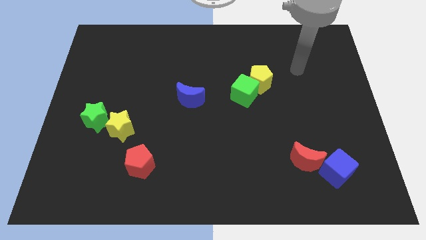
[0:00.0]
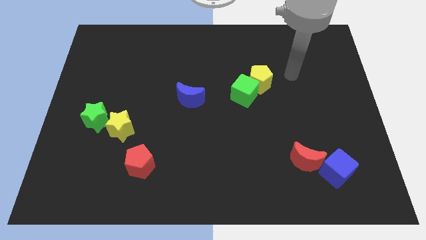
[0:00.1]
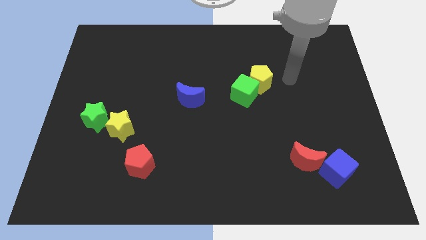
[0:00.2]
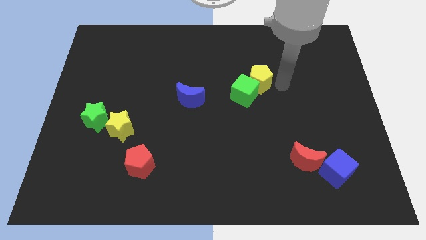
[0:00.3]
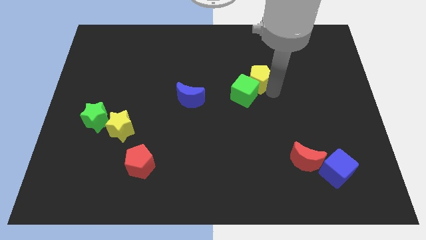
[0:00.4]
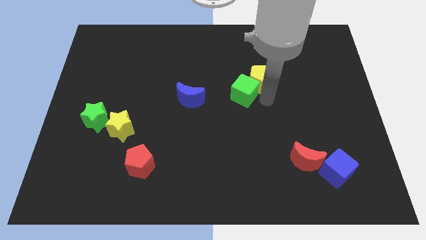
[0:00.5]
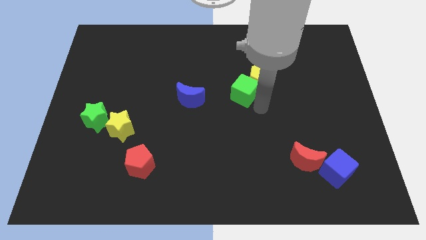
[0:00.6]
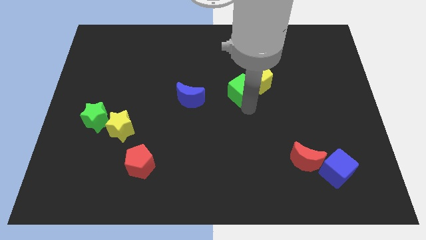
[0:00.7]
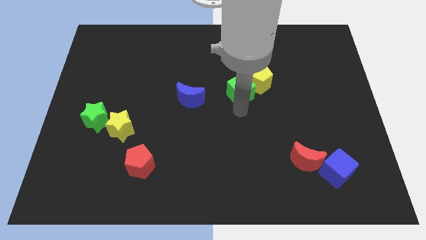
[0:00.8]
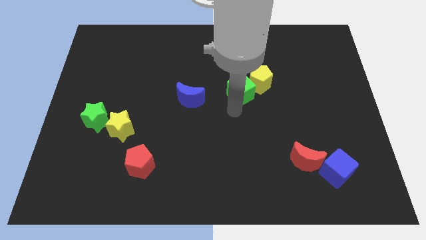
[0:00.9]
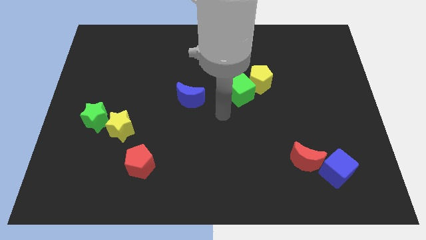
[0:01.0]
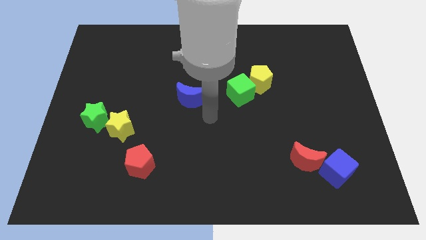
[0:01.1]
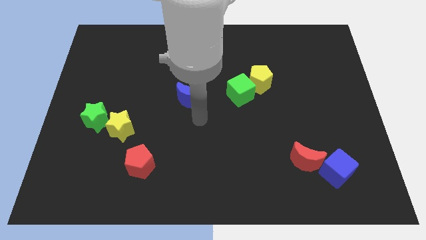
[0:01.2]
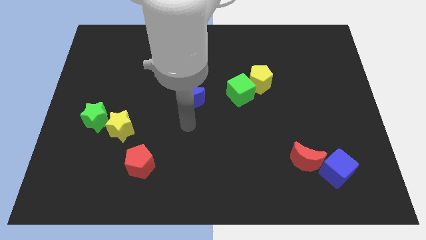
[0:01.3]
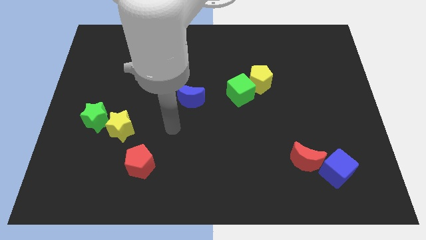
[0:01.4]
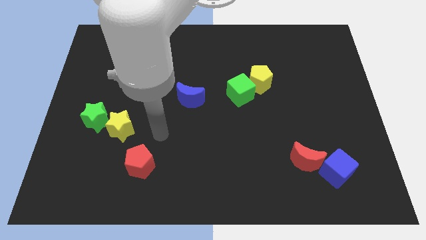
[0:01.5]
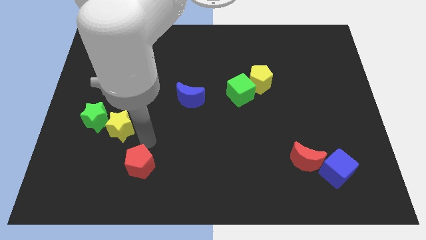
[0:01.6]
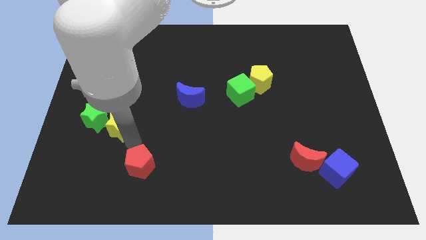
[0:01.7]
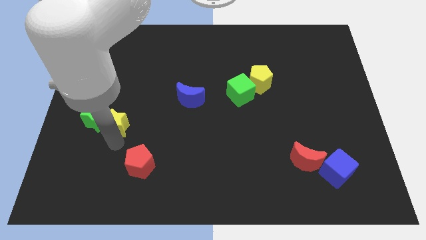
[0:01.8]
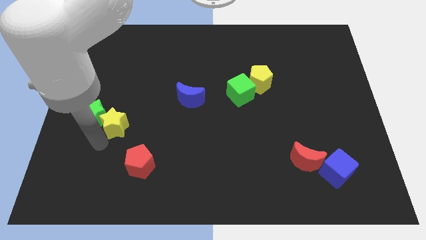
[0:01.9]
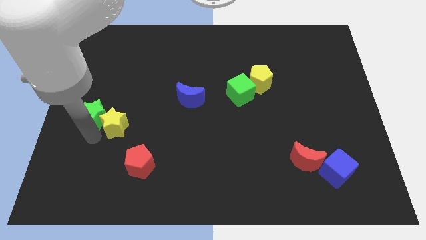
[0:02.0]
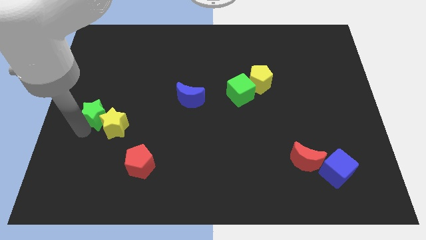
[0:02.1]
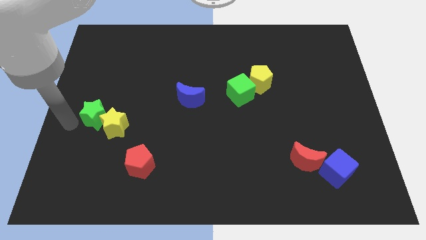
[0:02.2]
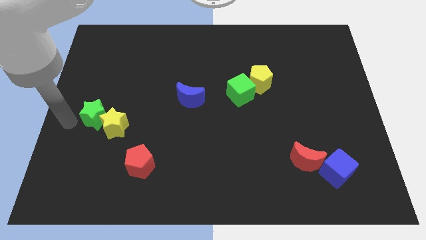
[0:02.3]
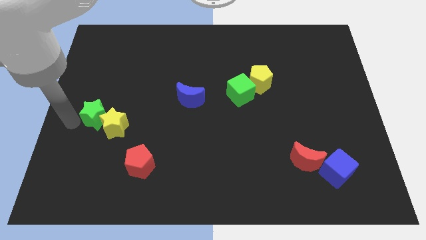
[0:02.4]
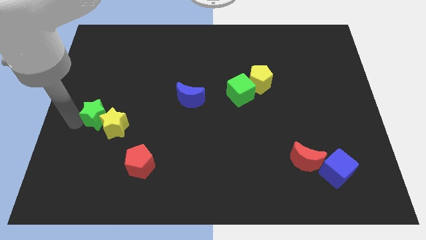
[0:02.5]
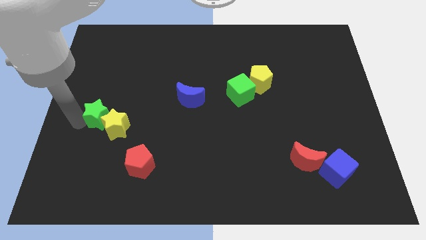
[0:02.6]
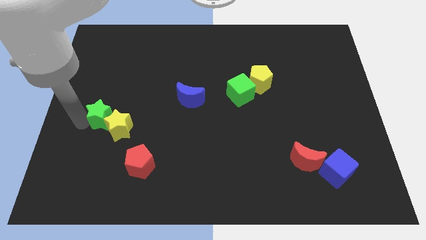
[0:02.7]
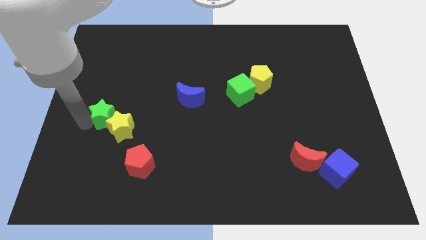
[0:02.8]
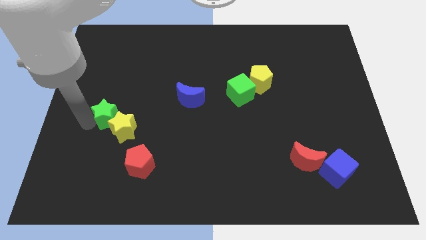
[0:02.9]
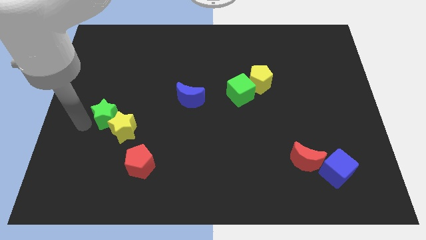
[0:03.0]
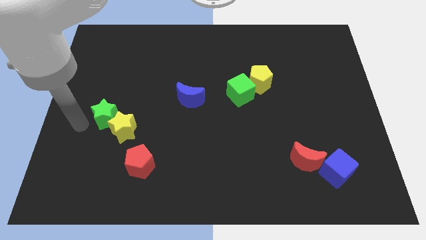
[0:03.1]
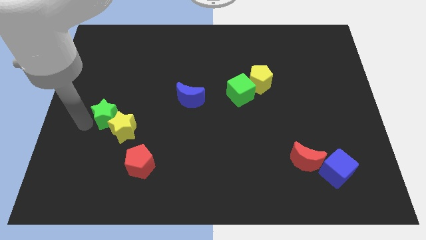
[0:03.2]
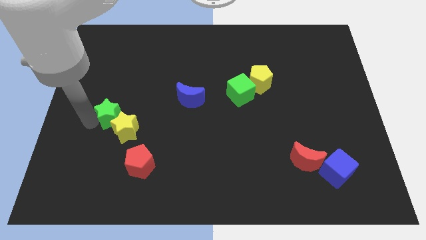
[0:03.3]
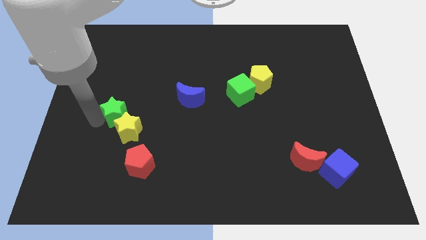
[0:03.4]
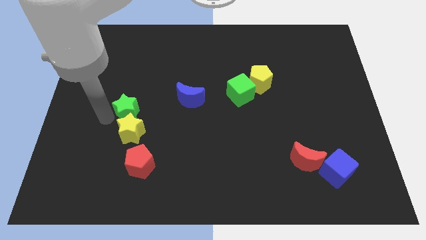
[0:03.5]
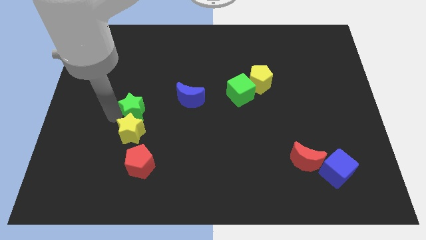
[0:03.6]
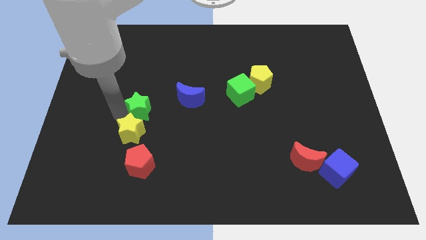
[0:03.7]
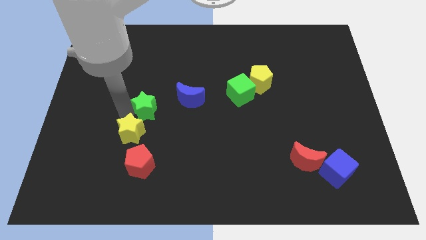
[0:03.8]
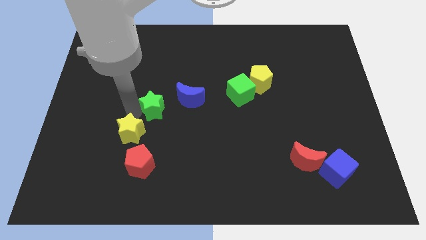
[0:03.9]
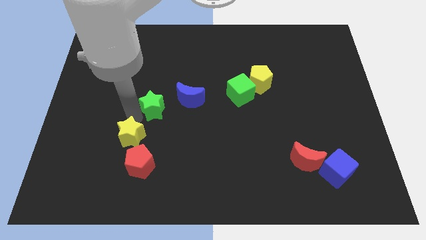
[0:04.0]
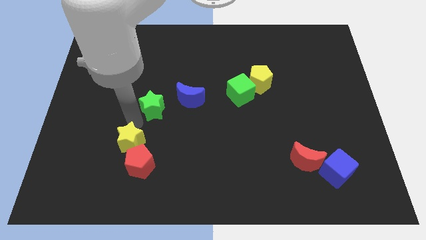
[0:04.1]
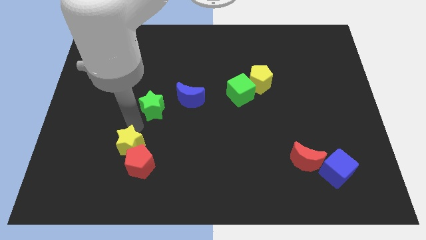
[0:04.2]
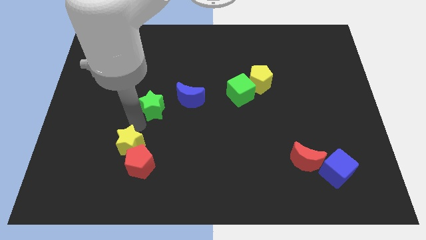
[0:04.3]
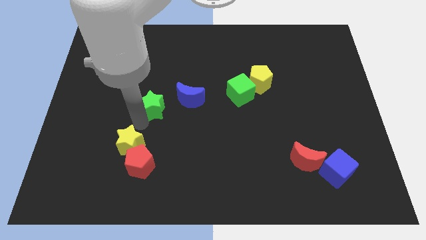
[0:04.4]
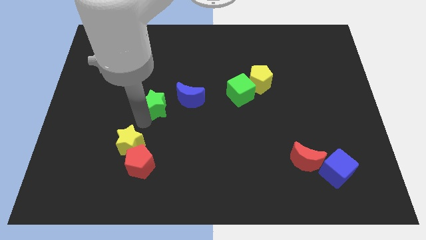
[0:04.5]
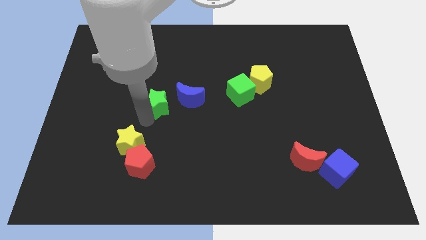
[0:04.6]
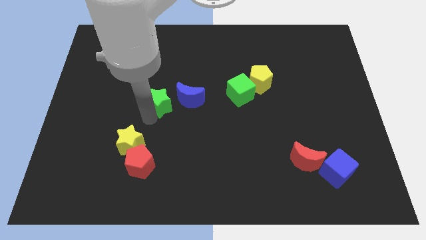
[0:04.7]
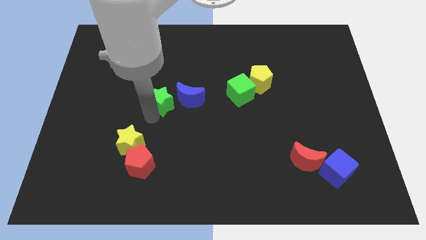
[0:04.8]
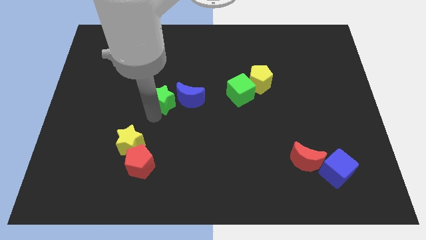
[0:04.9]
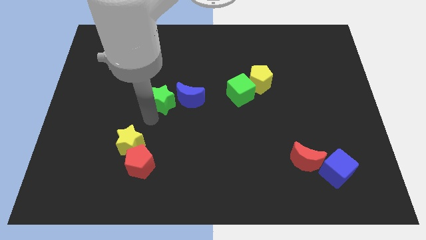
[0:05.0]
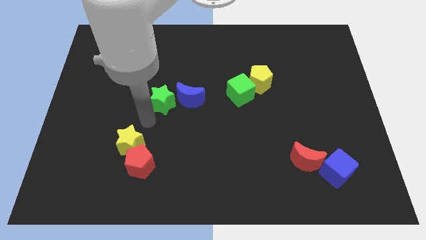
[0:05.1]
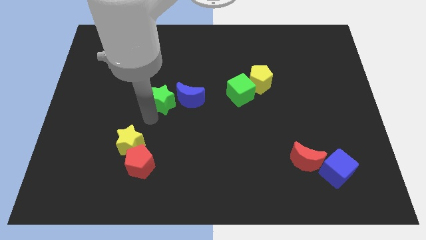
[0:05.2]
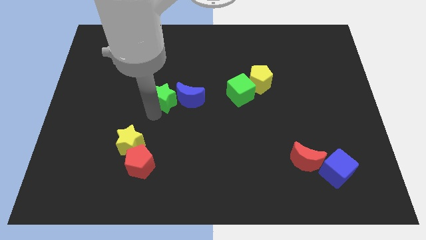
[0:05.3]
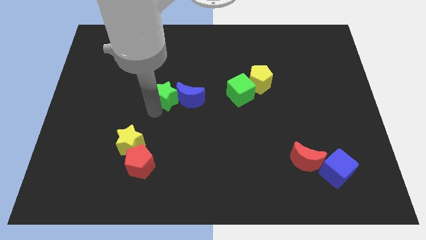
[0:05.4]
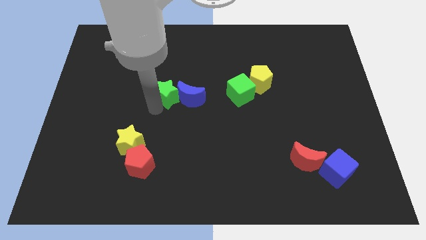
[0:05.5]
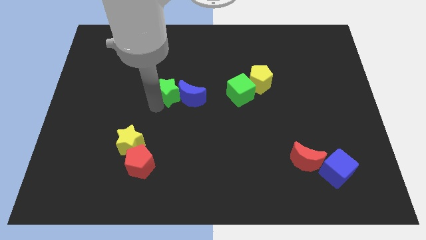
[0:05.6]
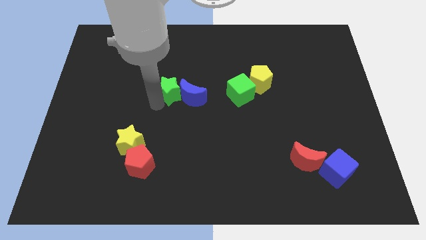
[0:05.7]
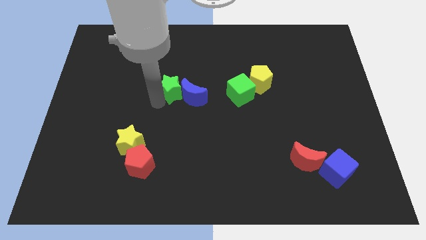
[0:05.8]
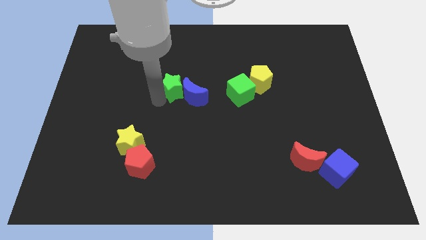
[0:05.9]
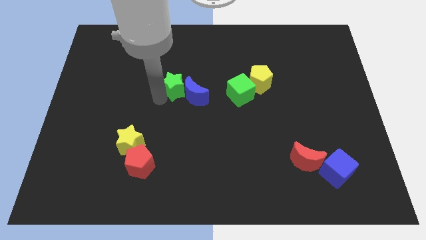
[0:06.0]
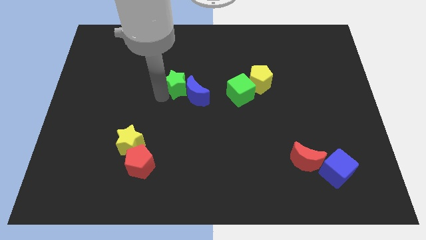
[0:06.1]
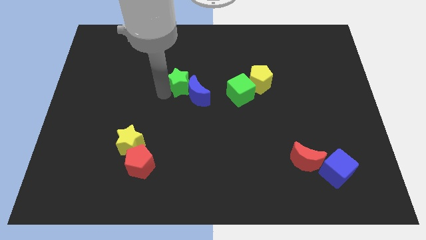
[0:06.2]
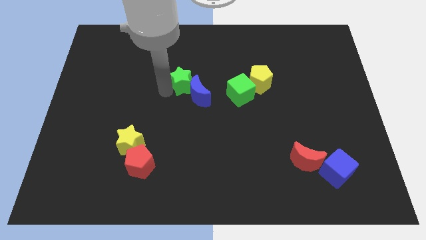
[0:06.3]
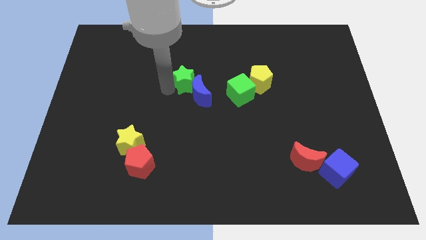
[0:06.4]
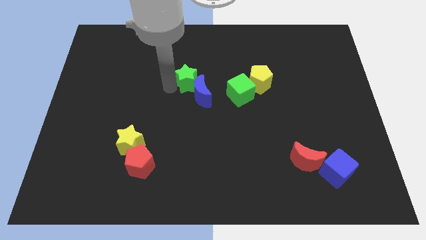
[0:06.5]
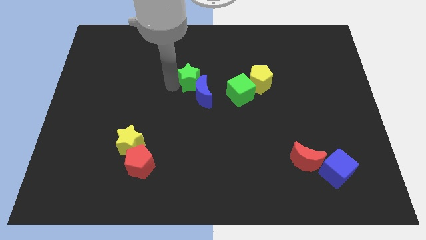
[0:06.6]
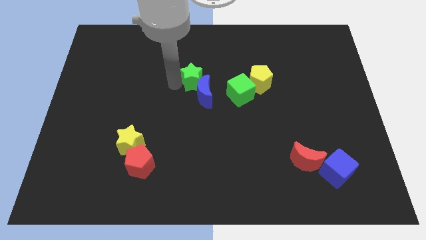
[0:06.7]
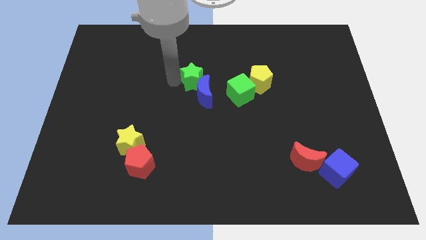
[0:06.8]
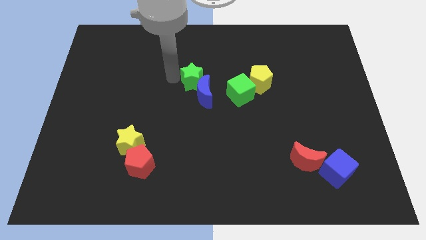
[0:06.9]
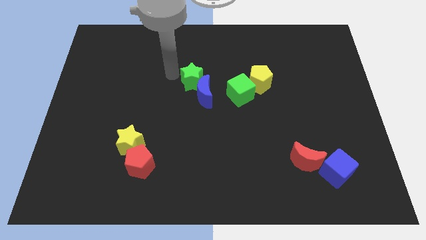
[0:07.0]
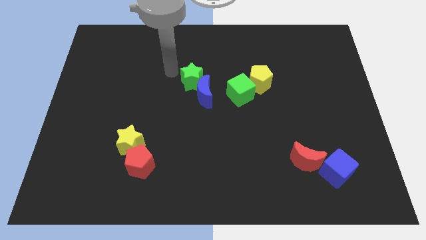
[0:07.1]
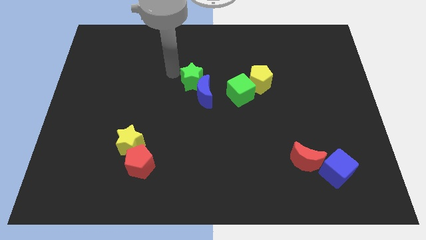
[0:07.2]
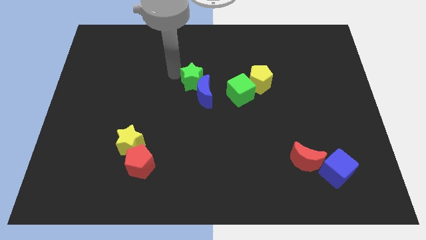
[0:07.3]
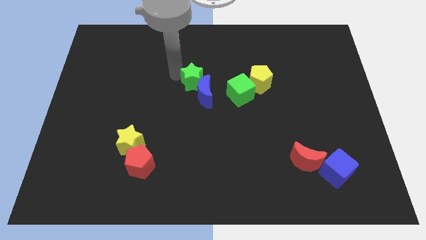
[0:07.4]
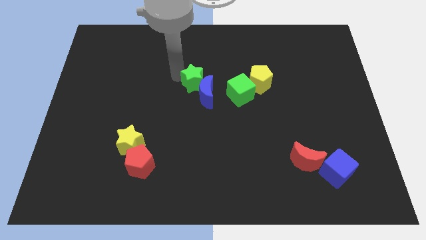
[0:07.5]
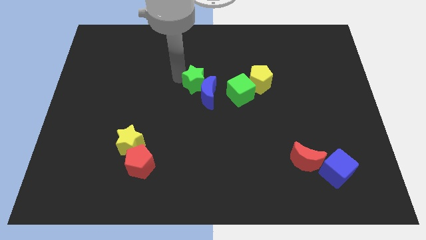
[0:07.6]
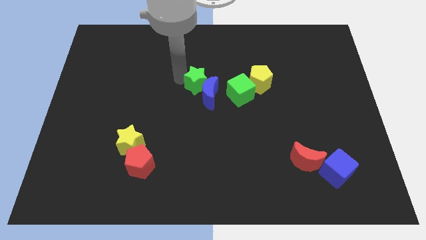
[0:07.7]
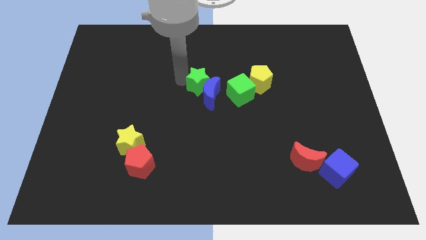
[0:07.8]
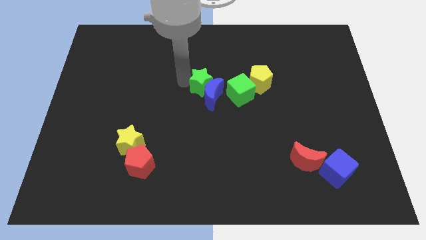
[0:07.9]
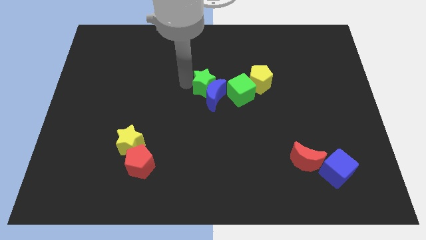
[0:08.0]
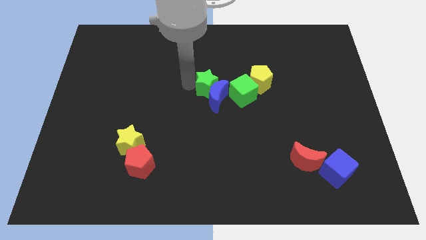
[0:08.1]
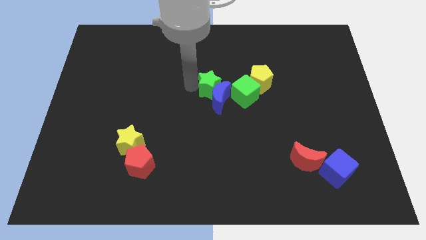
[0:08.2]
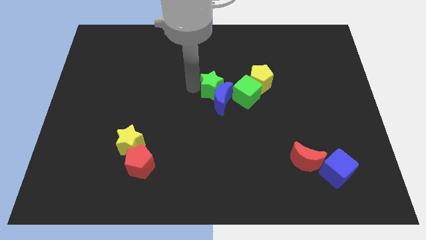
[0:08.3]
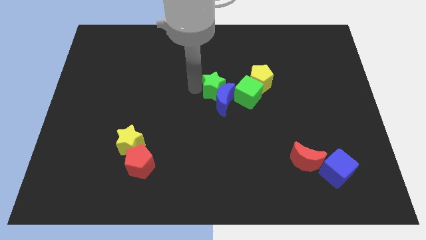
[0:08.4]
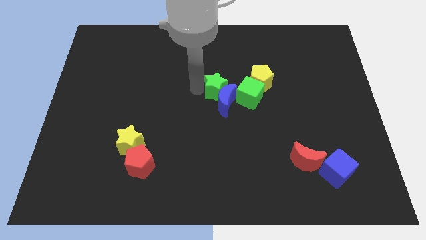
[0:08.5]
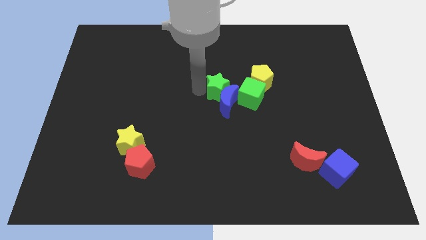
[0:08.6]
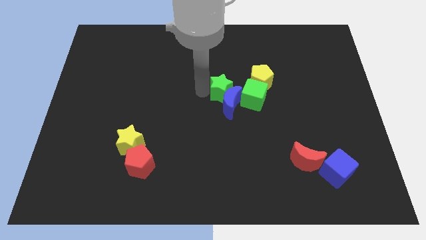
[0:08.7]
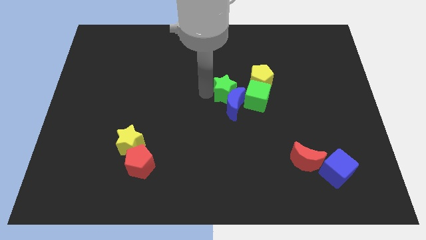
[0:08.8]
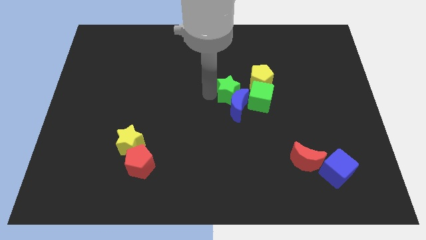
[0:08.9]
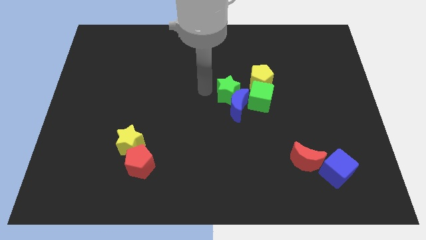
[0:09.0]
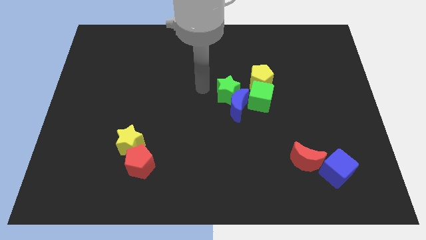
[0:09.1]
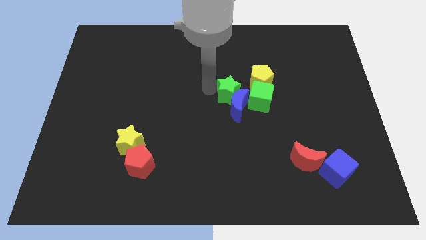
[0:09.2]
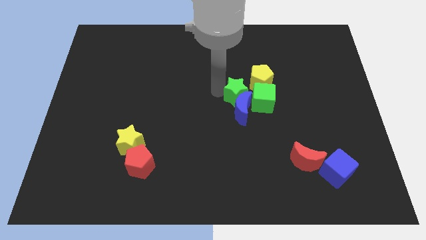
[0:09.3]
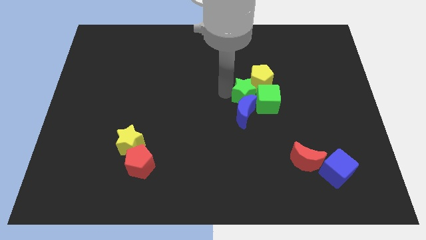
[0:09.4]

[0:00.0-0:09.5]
push the green star to the green cube
